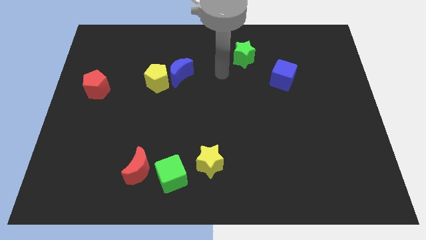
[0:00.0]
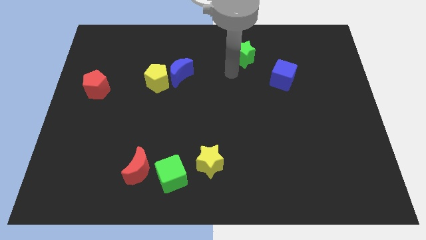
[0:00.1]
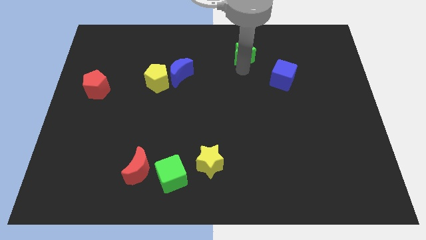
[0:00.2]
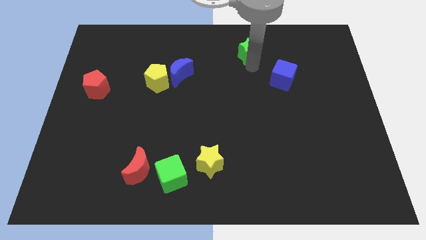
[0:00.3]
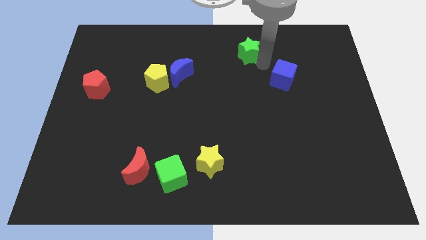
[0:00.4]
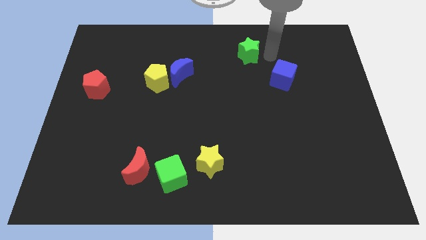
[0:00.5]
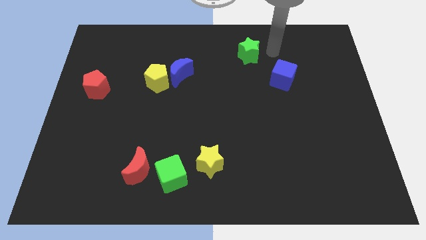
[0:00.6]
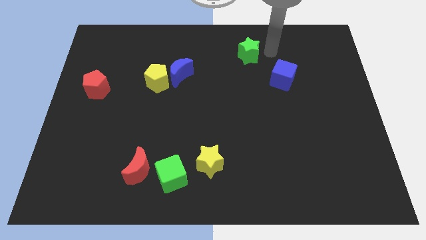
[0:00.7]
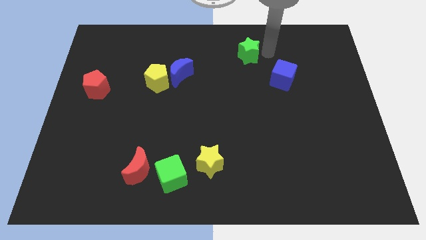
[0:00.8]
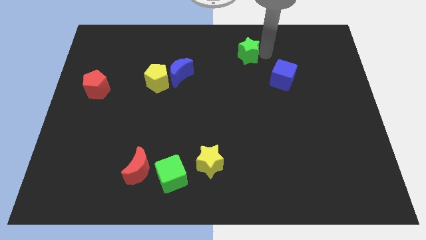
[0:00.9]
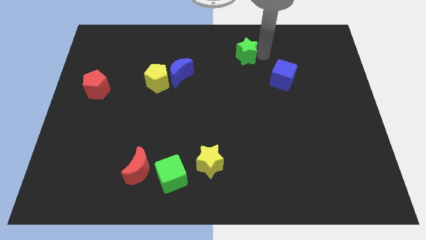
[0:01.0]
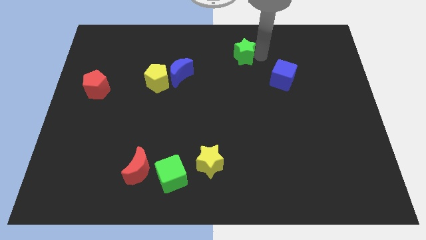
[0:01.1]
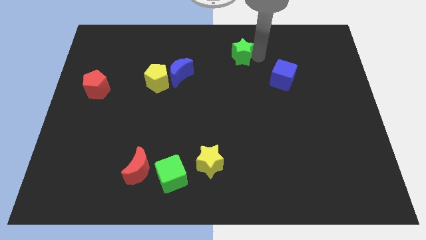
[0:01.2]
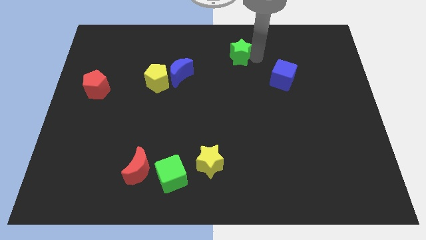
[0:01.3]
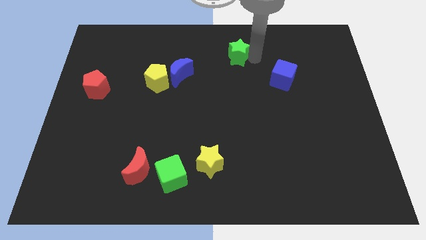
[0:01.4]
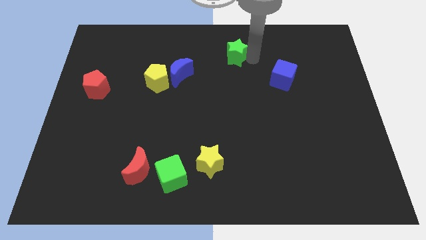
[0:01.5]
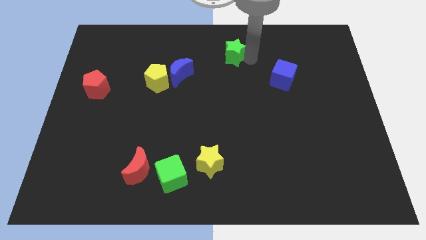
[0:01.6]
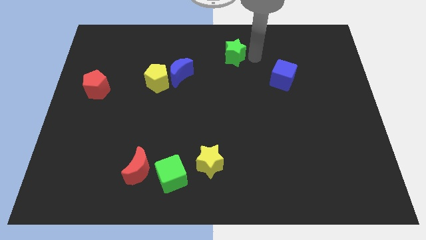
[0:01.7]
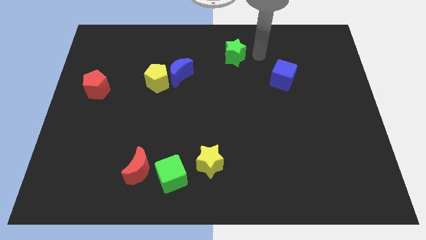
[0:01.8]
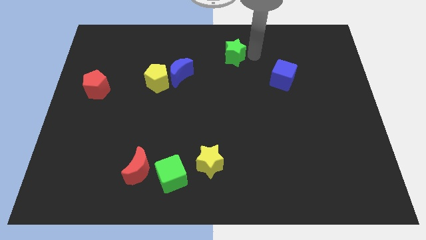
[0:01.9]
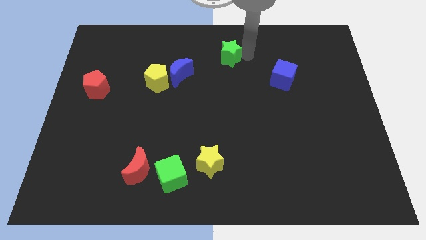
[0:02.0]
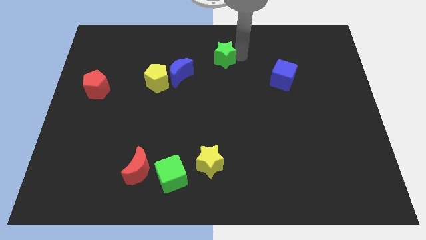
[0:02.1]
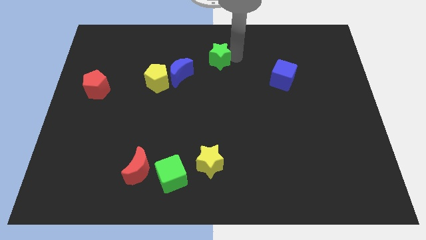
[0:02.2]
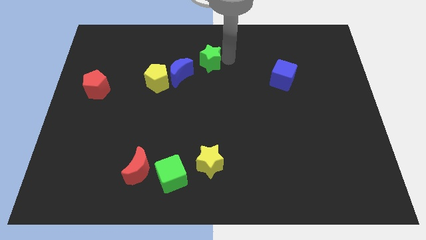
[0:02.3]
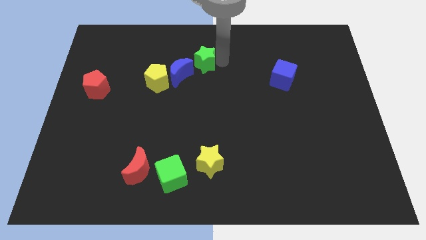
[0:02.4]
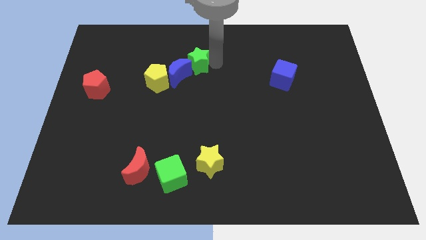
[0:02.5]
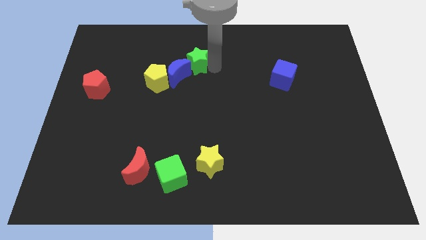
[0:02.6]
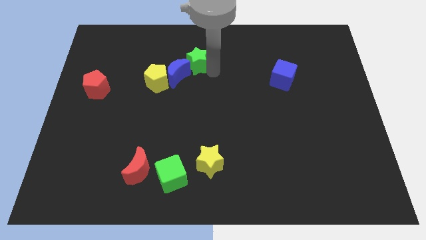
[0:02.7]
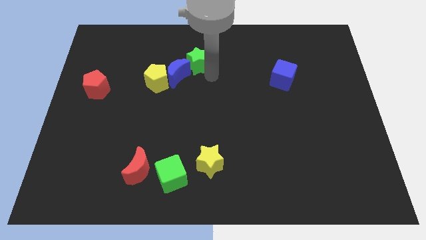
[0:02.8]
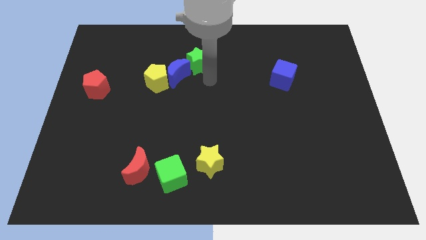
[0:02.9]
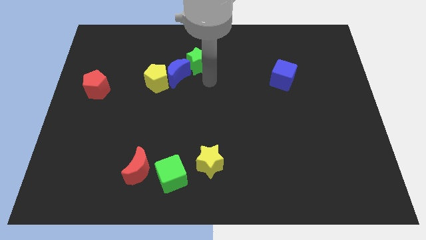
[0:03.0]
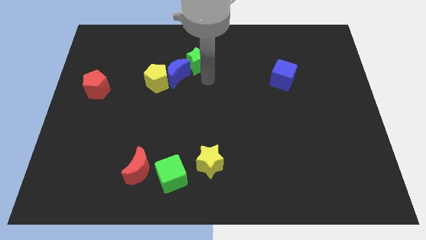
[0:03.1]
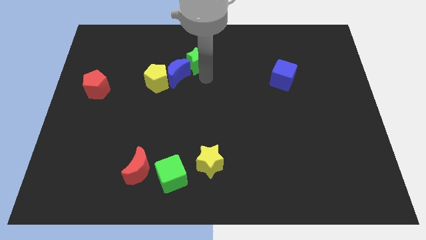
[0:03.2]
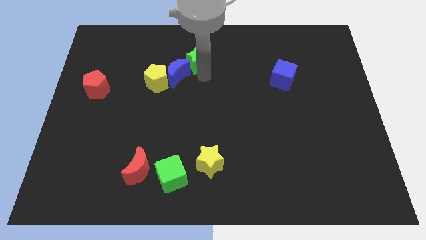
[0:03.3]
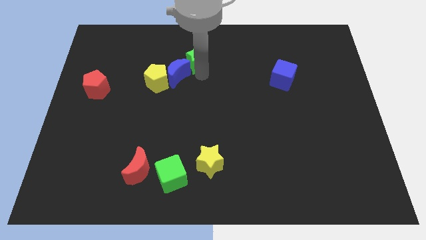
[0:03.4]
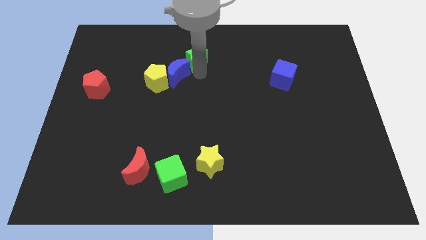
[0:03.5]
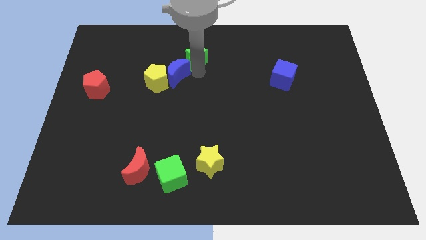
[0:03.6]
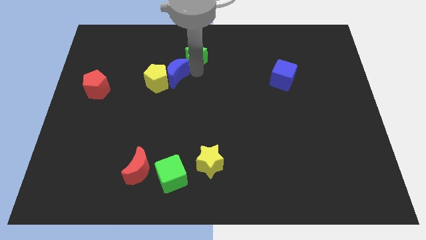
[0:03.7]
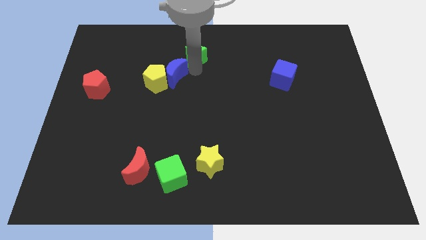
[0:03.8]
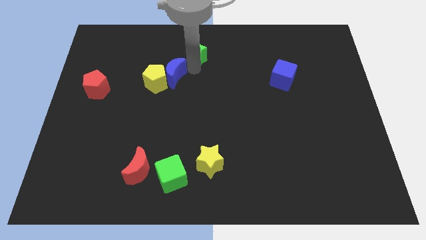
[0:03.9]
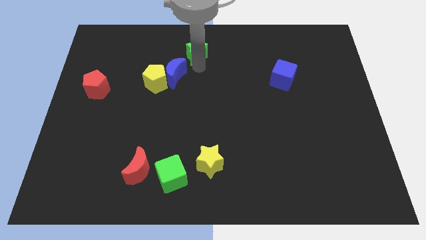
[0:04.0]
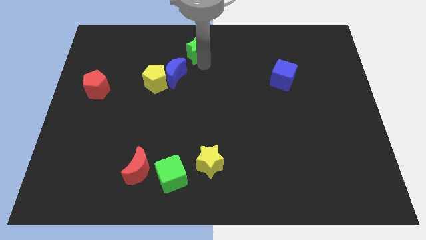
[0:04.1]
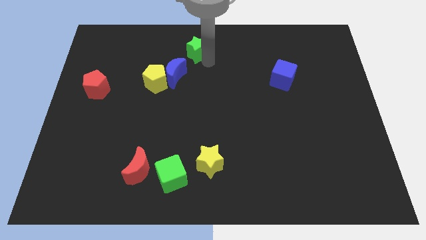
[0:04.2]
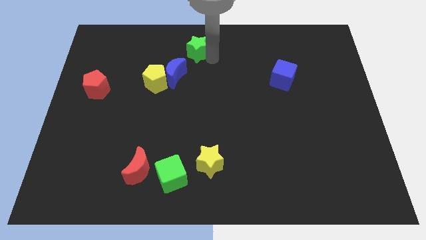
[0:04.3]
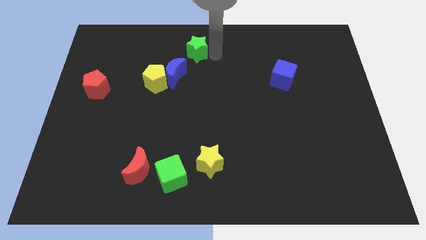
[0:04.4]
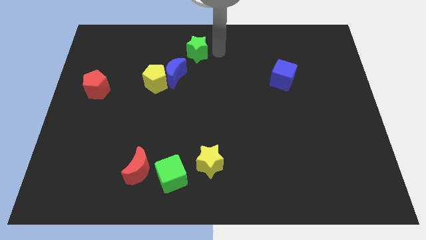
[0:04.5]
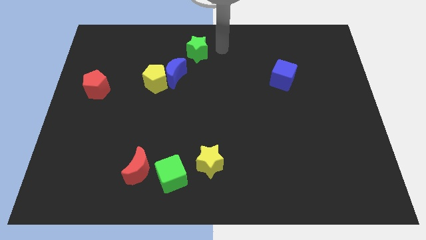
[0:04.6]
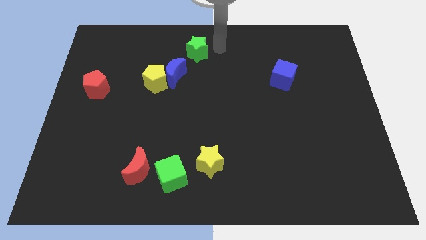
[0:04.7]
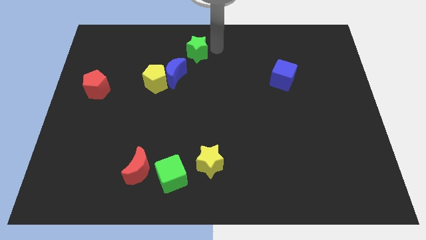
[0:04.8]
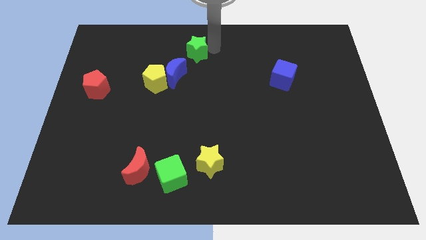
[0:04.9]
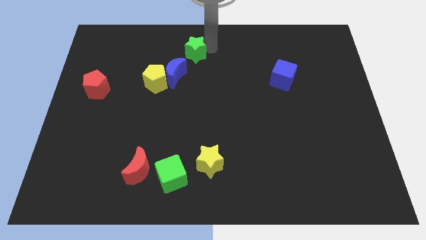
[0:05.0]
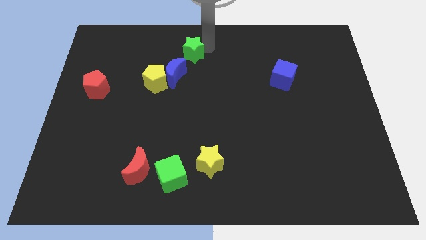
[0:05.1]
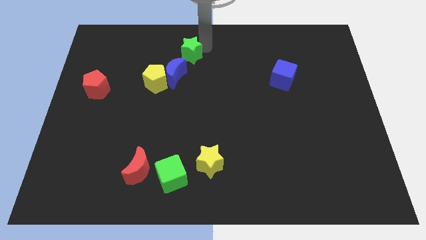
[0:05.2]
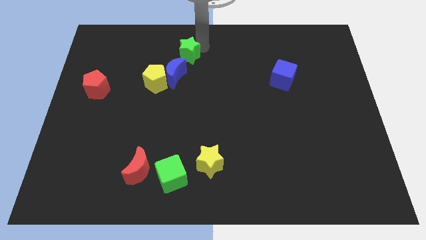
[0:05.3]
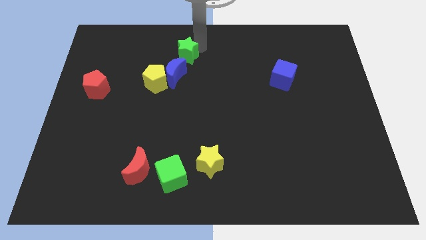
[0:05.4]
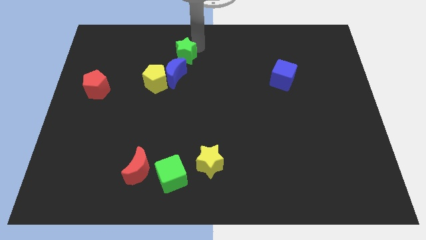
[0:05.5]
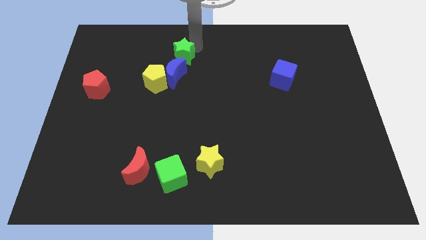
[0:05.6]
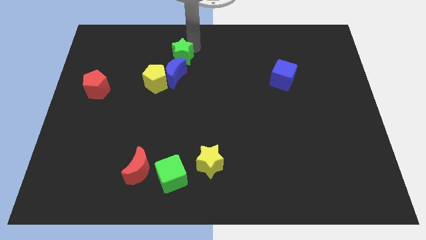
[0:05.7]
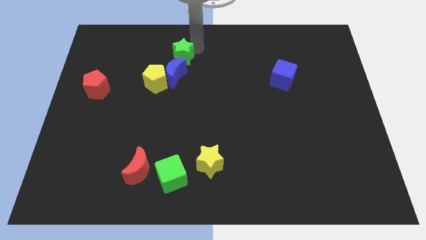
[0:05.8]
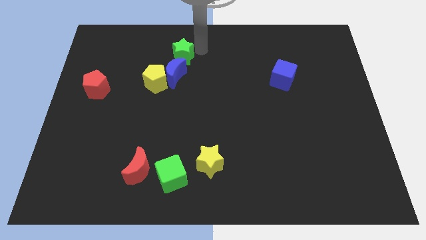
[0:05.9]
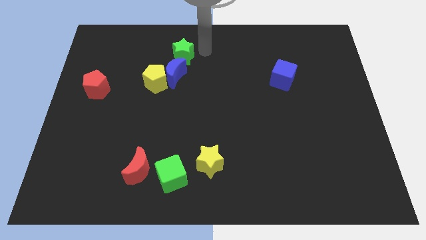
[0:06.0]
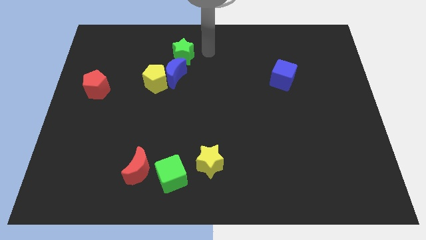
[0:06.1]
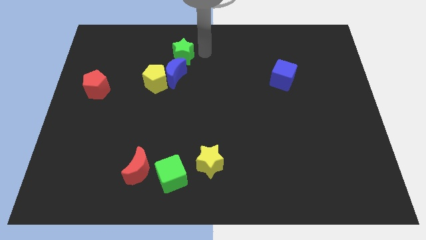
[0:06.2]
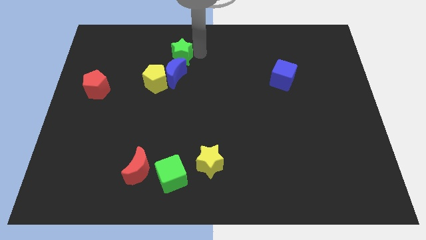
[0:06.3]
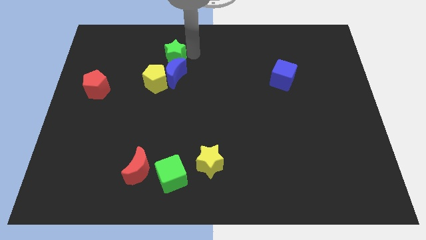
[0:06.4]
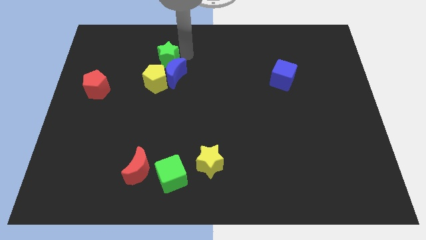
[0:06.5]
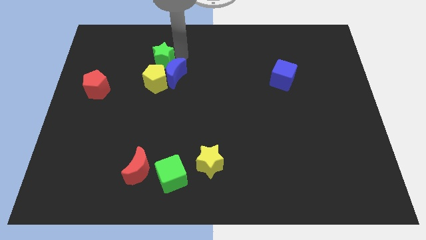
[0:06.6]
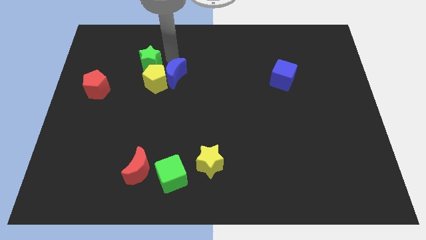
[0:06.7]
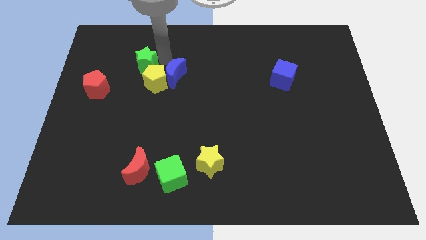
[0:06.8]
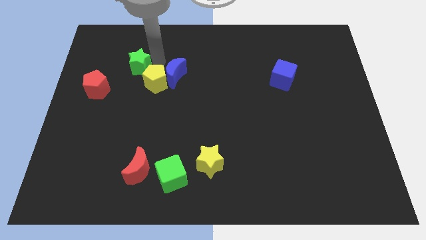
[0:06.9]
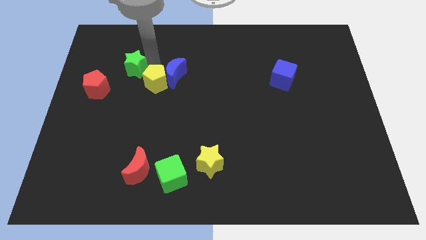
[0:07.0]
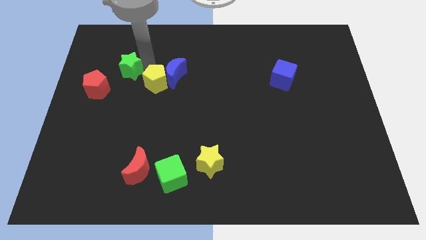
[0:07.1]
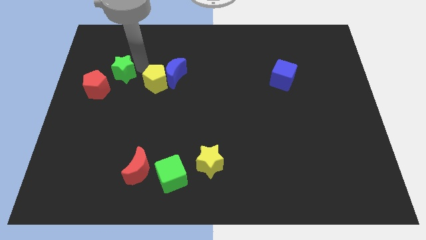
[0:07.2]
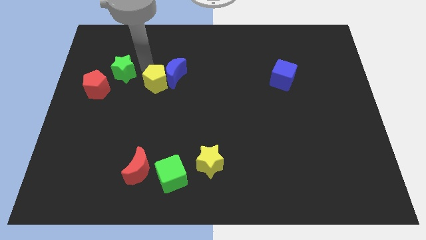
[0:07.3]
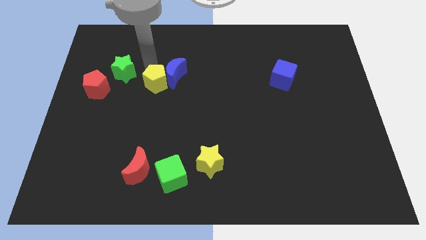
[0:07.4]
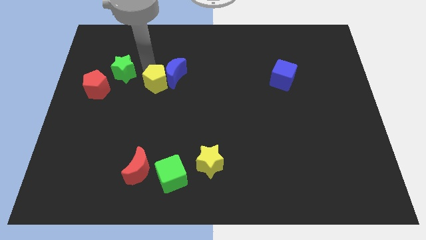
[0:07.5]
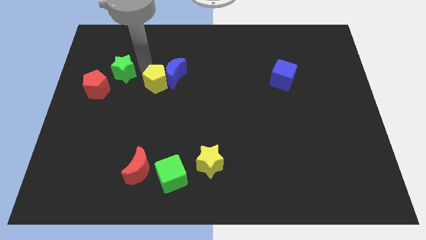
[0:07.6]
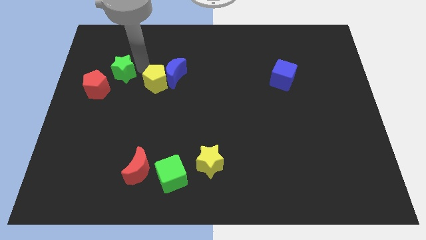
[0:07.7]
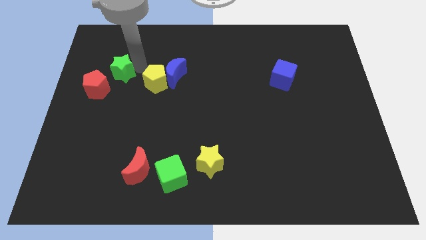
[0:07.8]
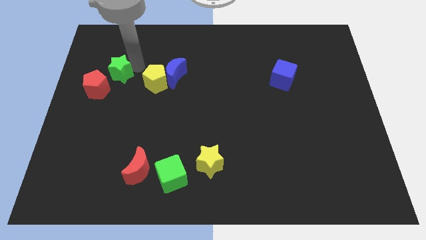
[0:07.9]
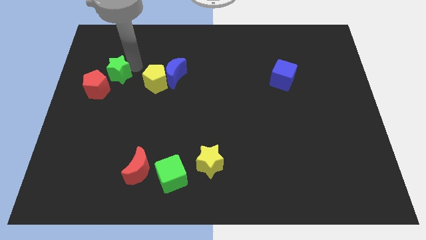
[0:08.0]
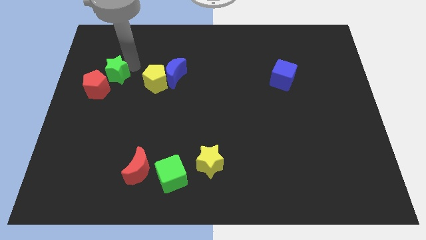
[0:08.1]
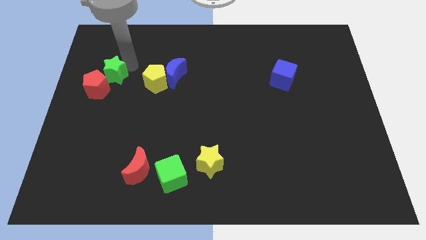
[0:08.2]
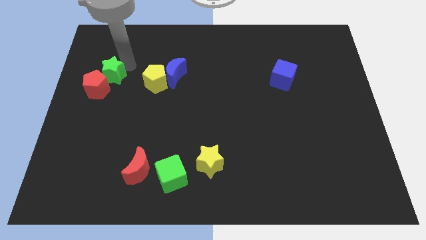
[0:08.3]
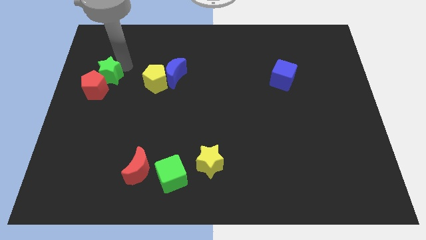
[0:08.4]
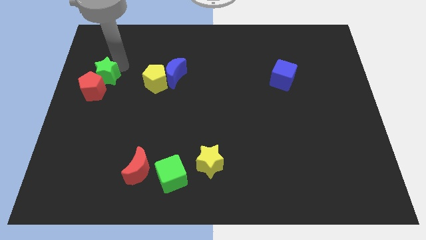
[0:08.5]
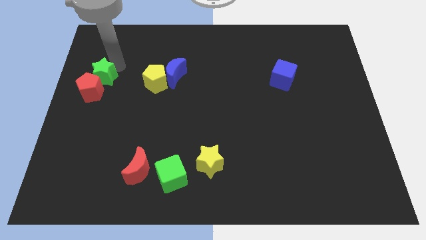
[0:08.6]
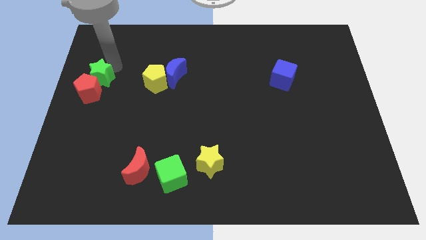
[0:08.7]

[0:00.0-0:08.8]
slide the green star to the left side
